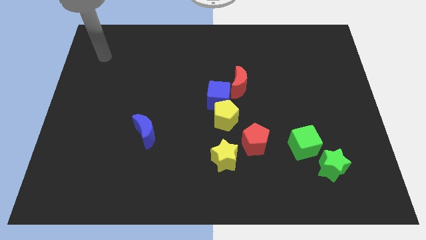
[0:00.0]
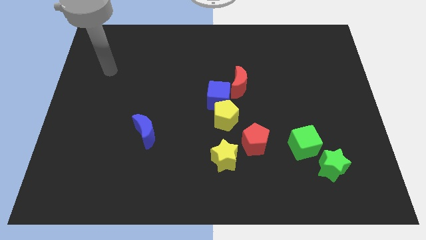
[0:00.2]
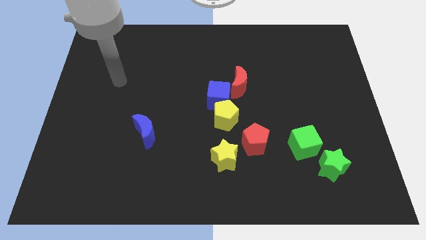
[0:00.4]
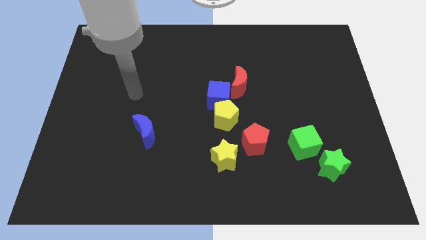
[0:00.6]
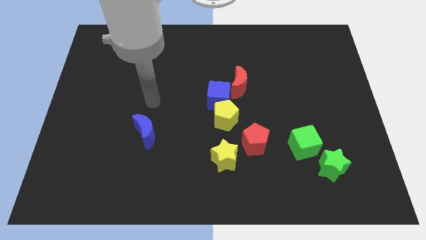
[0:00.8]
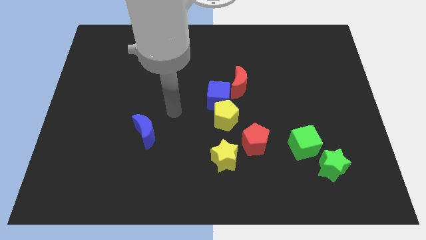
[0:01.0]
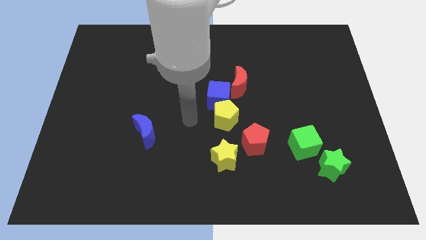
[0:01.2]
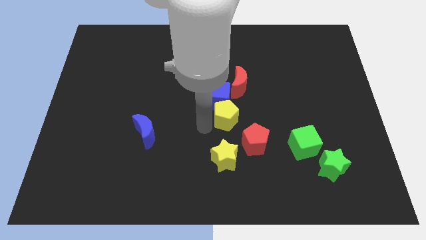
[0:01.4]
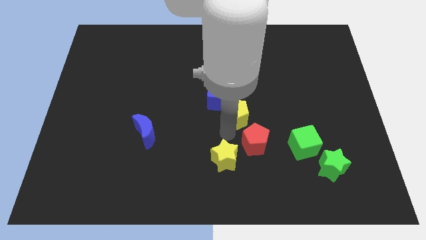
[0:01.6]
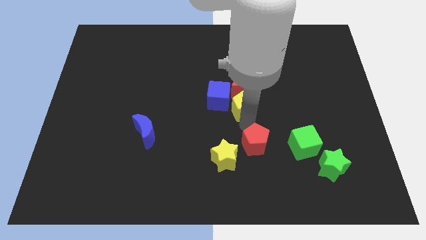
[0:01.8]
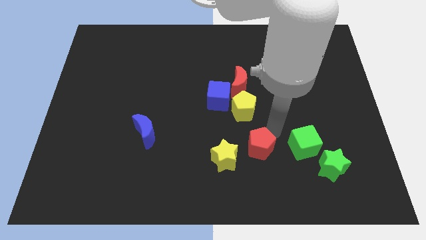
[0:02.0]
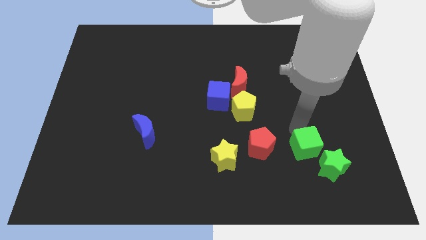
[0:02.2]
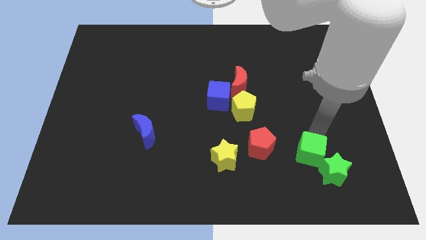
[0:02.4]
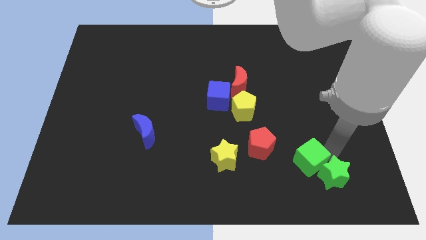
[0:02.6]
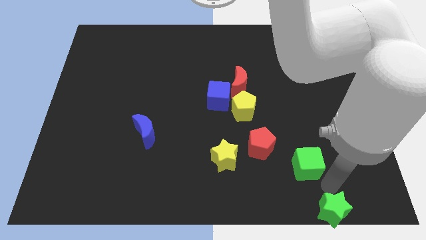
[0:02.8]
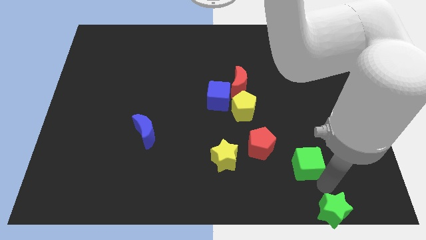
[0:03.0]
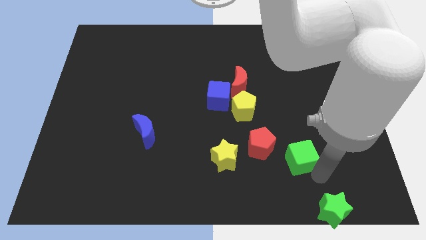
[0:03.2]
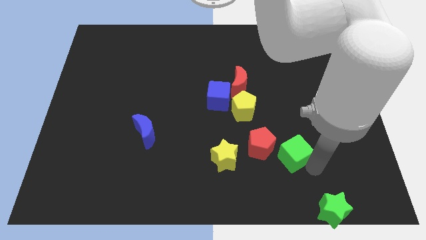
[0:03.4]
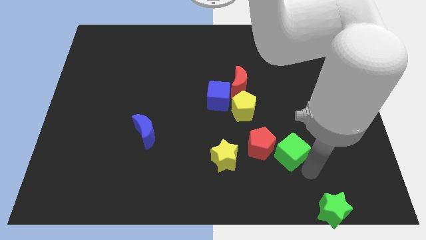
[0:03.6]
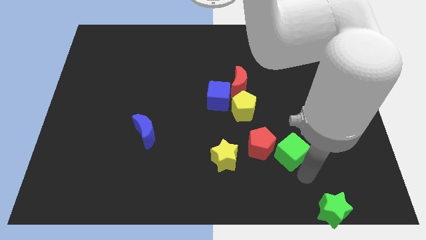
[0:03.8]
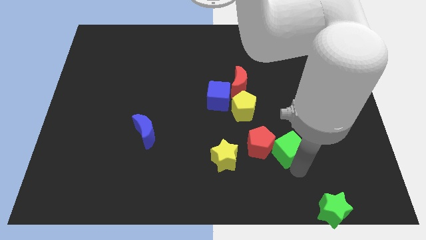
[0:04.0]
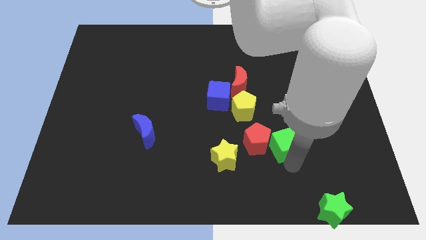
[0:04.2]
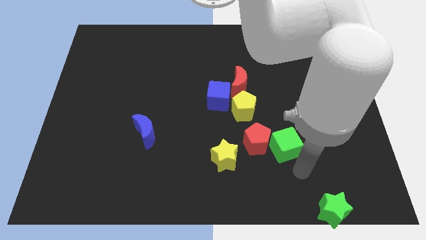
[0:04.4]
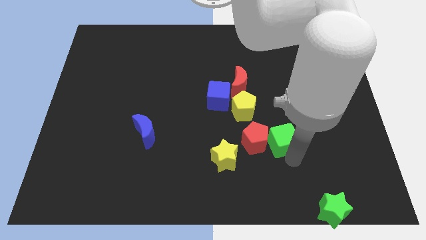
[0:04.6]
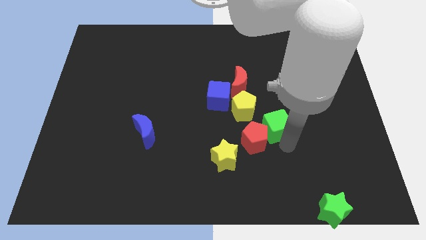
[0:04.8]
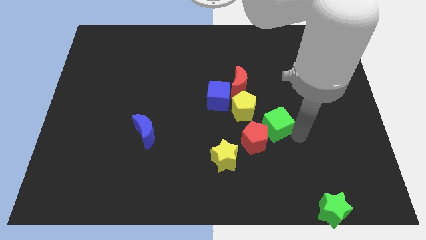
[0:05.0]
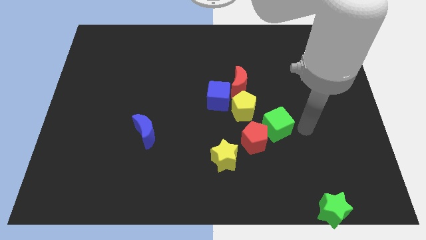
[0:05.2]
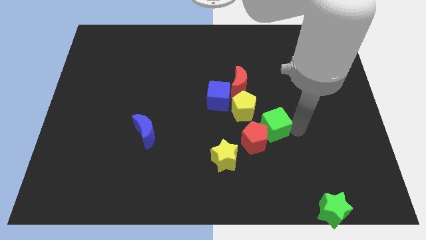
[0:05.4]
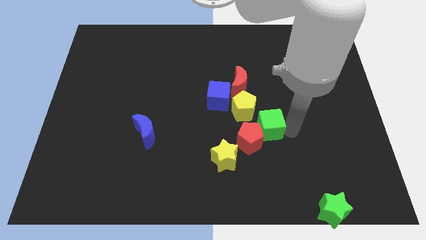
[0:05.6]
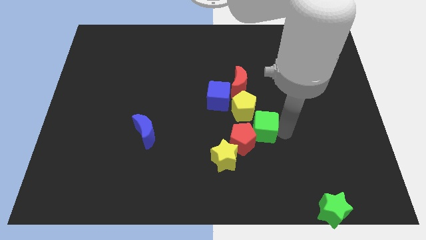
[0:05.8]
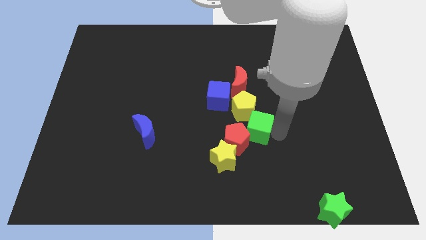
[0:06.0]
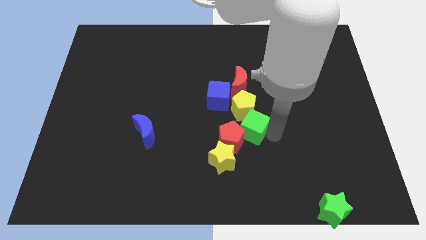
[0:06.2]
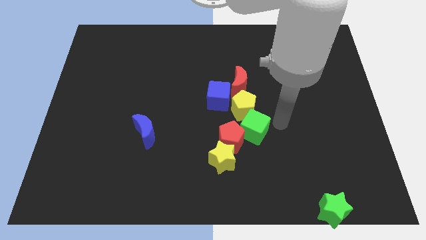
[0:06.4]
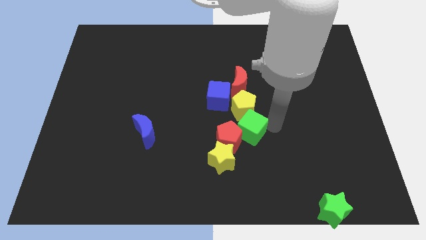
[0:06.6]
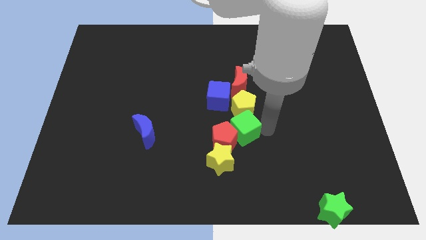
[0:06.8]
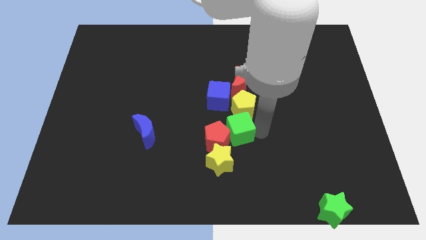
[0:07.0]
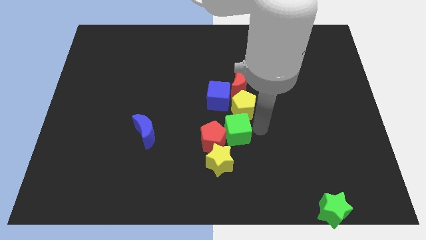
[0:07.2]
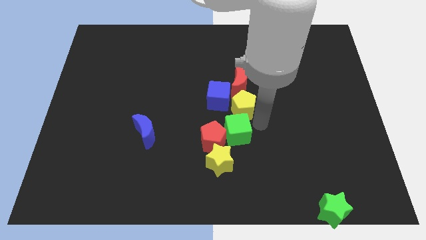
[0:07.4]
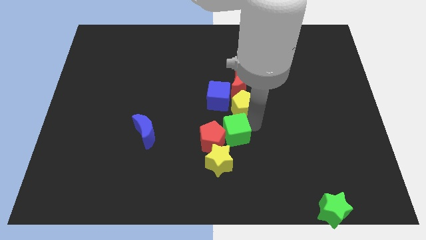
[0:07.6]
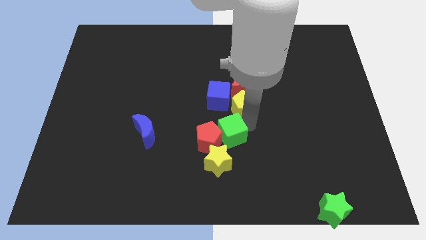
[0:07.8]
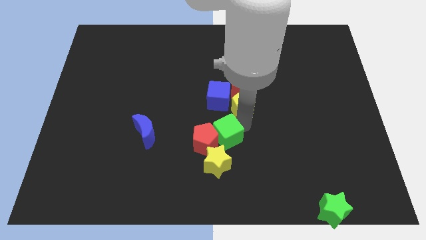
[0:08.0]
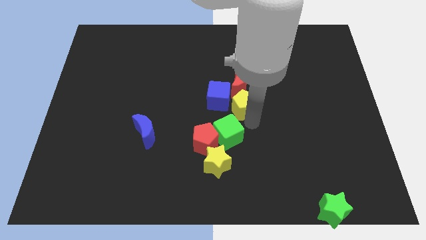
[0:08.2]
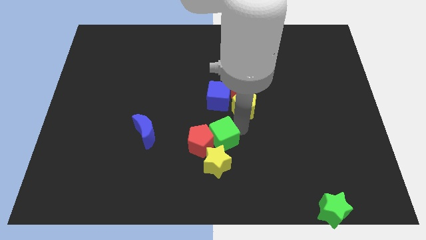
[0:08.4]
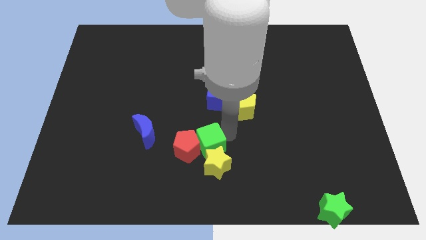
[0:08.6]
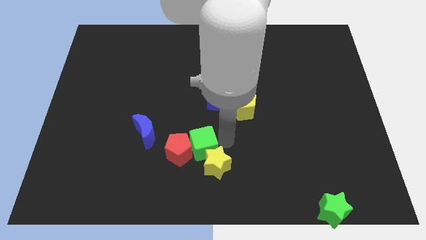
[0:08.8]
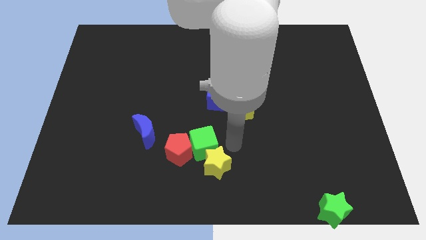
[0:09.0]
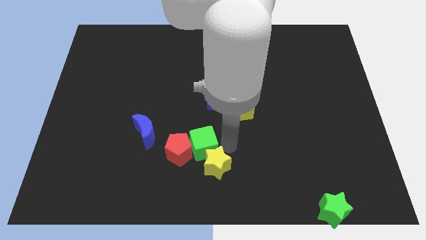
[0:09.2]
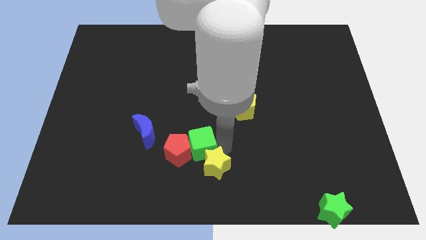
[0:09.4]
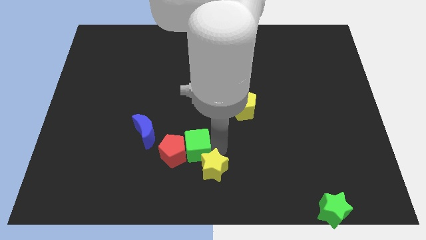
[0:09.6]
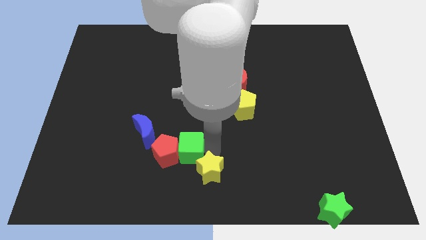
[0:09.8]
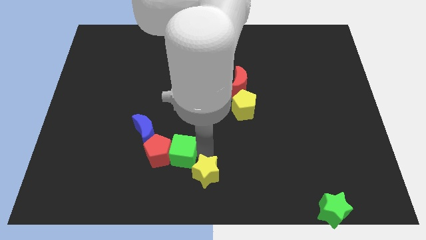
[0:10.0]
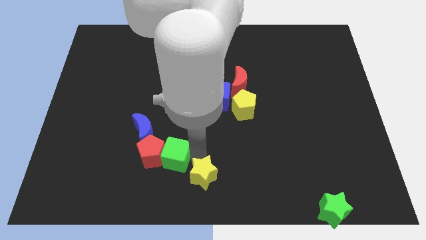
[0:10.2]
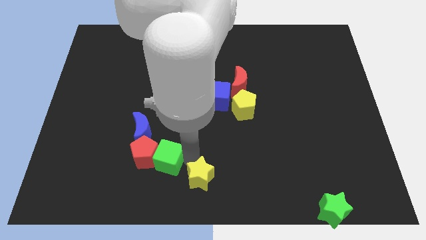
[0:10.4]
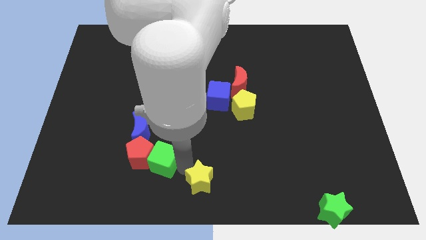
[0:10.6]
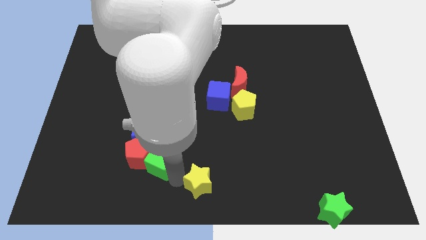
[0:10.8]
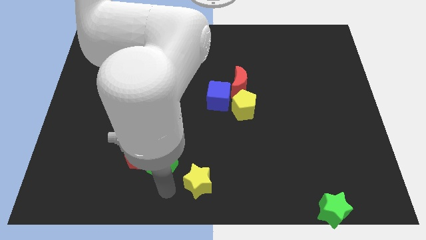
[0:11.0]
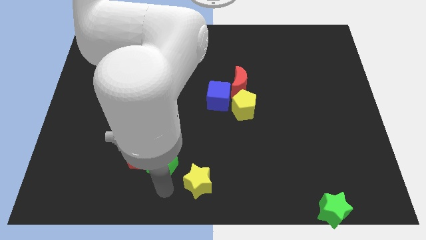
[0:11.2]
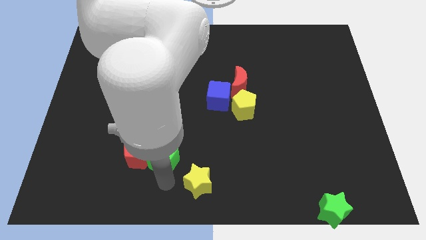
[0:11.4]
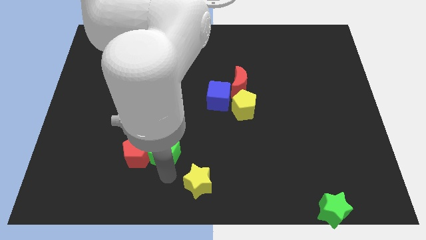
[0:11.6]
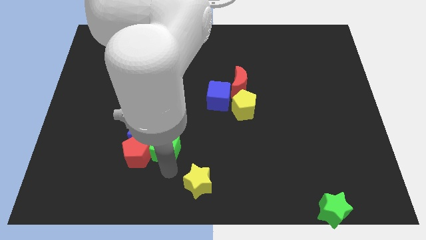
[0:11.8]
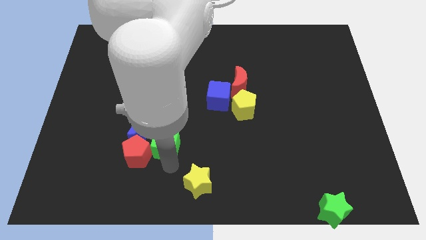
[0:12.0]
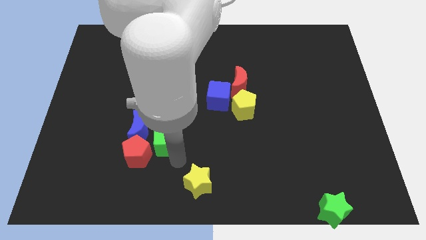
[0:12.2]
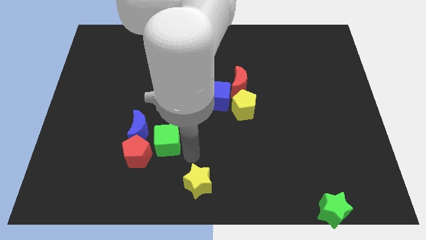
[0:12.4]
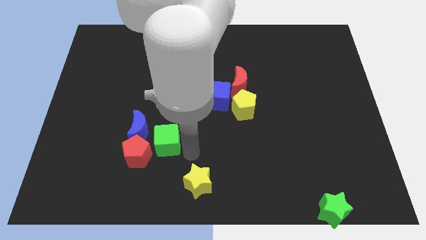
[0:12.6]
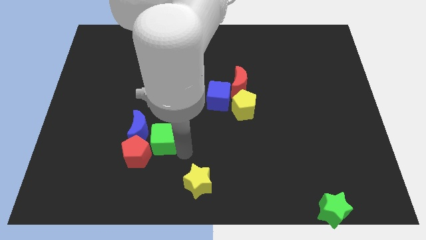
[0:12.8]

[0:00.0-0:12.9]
slide the green cube close to the blue moon

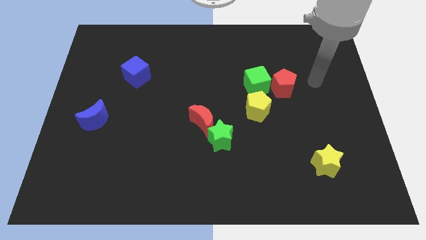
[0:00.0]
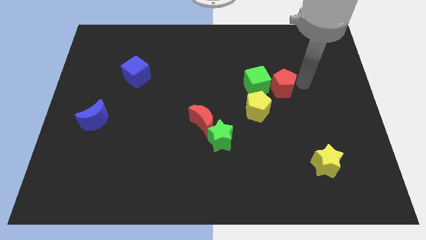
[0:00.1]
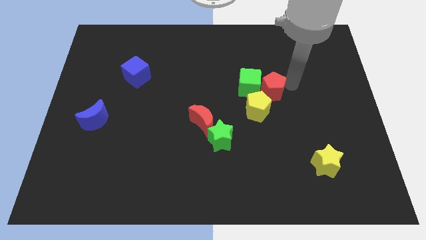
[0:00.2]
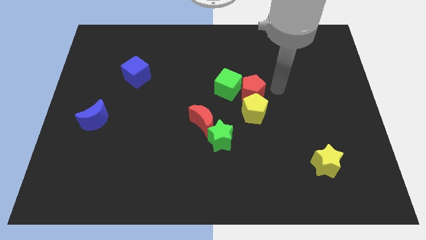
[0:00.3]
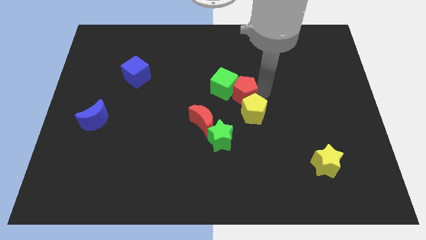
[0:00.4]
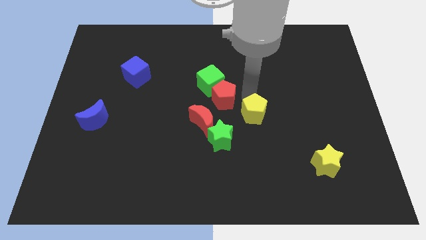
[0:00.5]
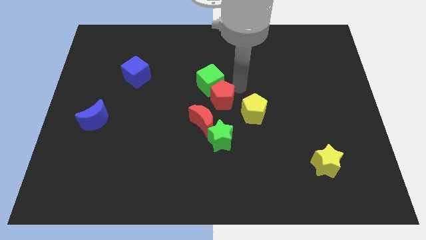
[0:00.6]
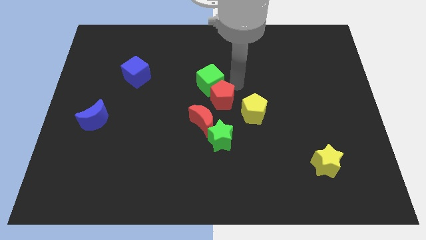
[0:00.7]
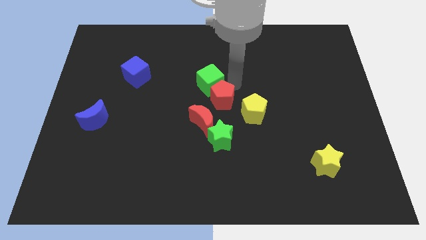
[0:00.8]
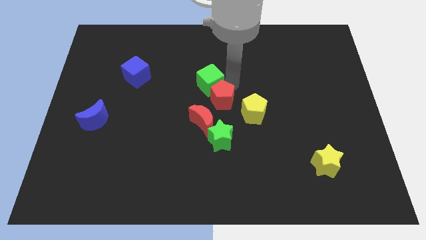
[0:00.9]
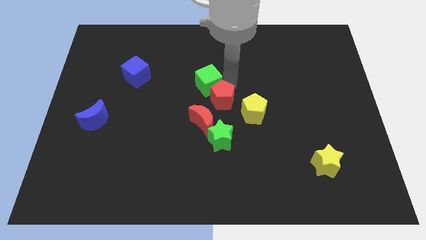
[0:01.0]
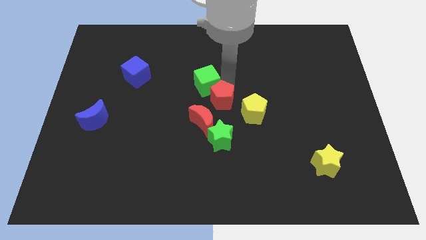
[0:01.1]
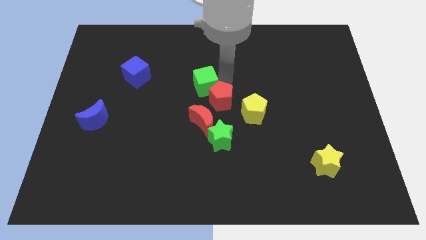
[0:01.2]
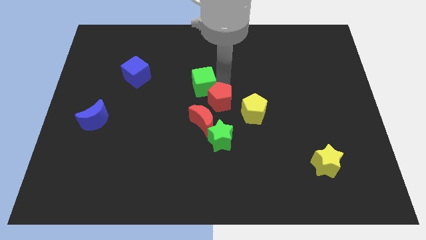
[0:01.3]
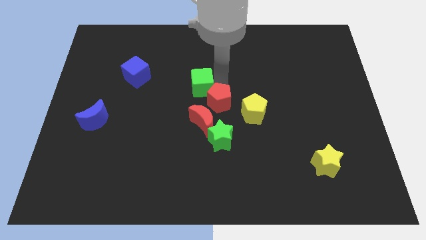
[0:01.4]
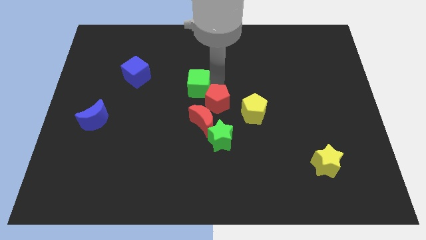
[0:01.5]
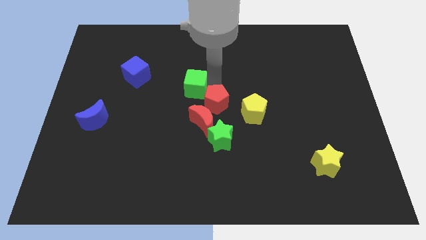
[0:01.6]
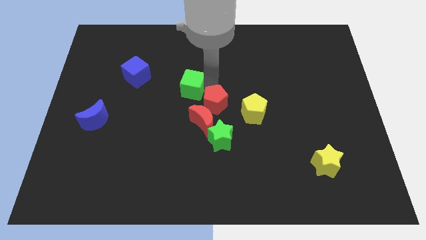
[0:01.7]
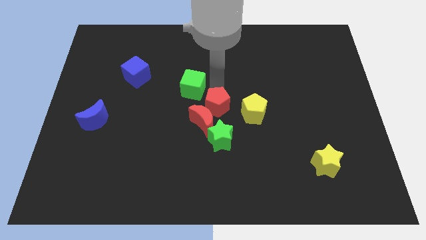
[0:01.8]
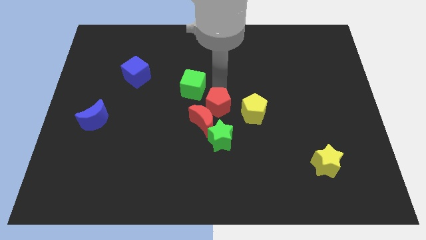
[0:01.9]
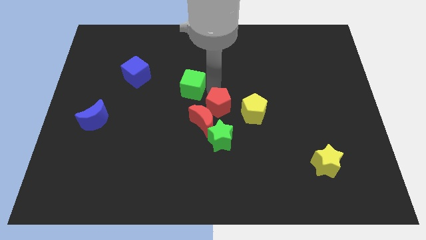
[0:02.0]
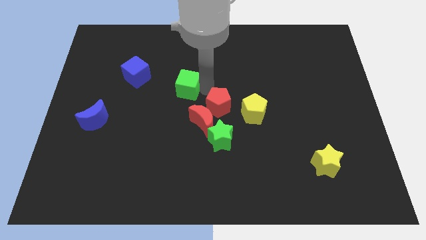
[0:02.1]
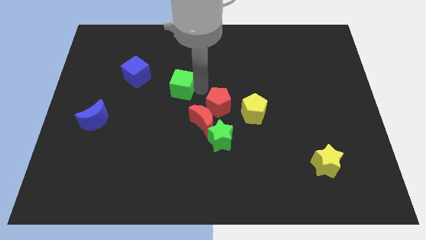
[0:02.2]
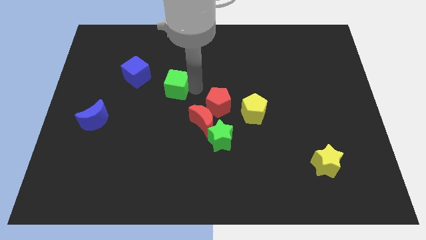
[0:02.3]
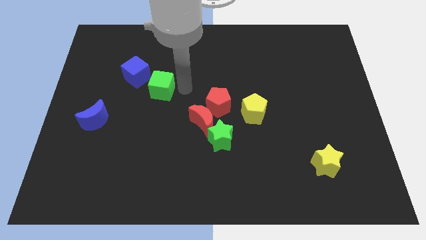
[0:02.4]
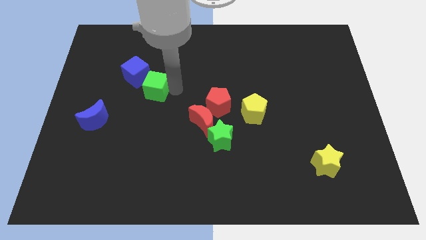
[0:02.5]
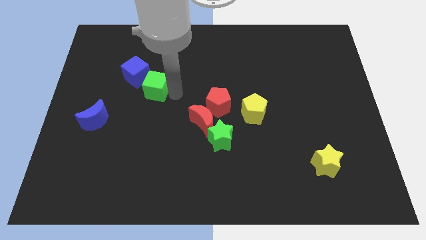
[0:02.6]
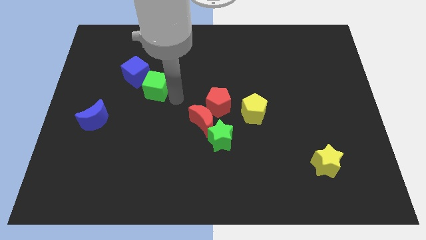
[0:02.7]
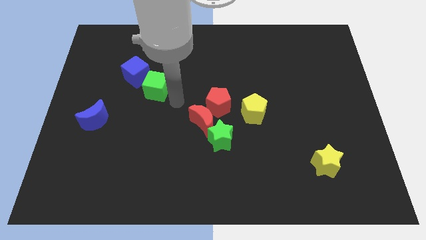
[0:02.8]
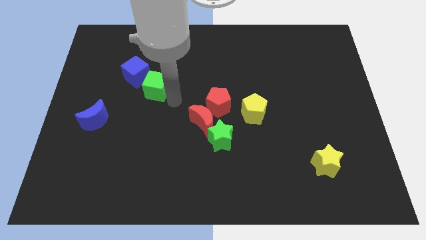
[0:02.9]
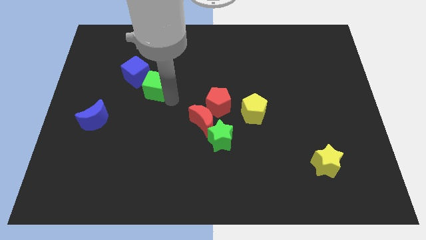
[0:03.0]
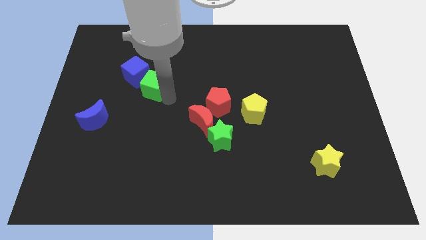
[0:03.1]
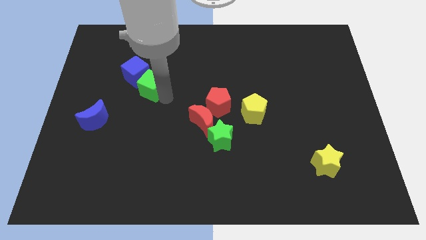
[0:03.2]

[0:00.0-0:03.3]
put the green cube close to the blue cube
